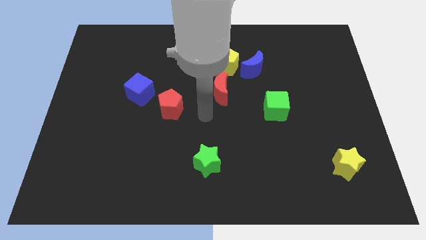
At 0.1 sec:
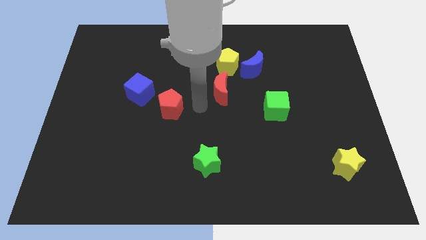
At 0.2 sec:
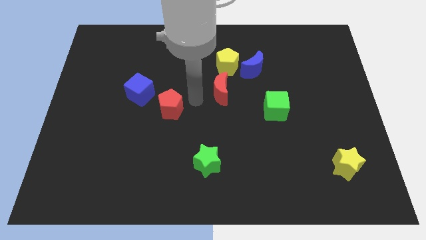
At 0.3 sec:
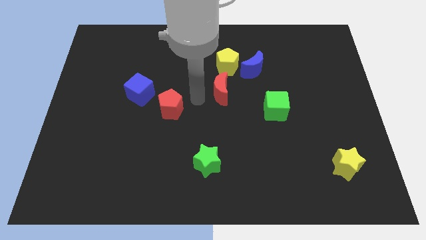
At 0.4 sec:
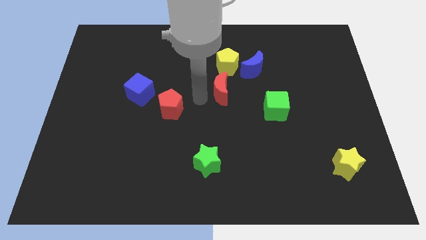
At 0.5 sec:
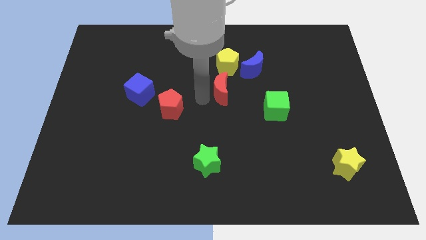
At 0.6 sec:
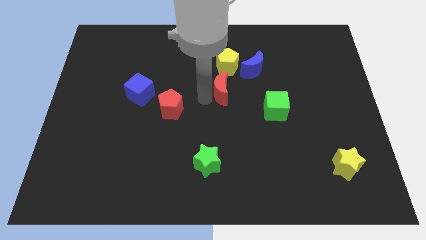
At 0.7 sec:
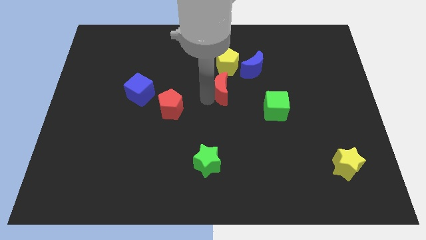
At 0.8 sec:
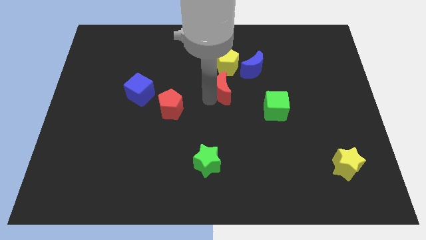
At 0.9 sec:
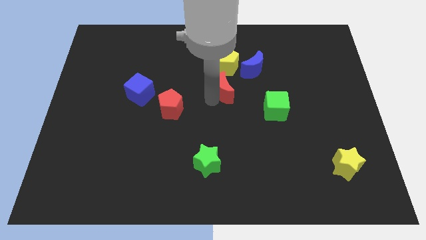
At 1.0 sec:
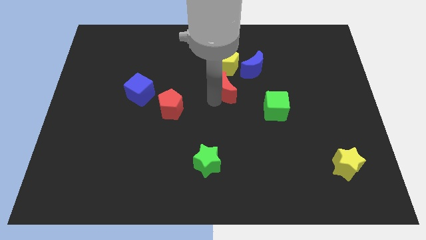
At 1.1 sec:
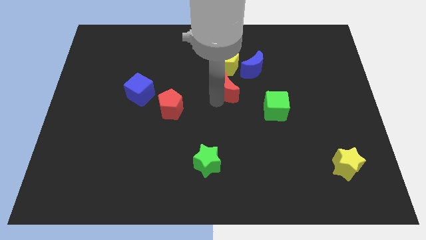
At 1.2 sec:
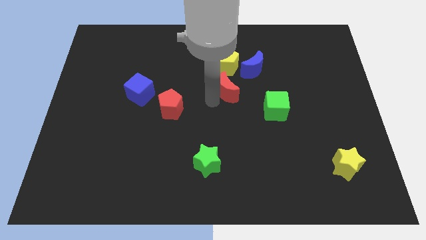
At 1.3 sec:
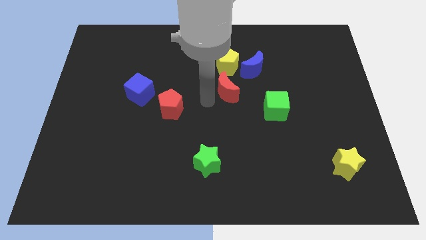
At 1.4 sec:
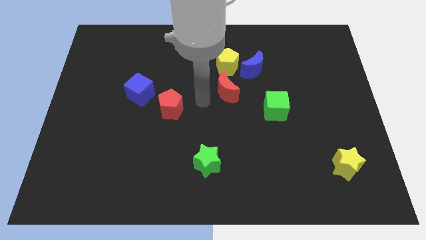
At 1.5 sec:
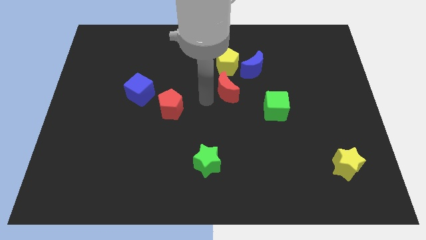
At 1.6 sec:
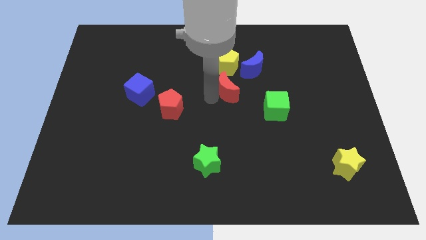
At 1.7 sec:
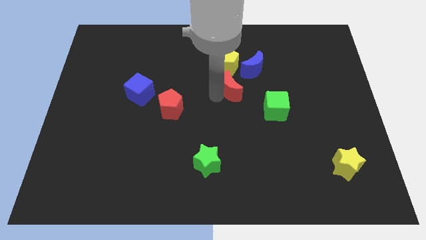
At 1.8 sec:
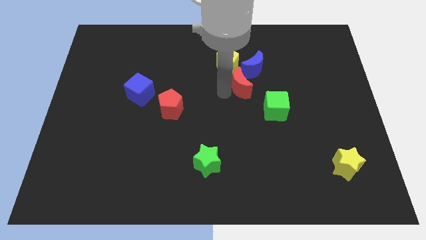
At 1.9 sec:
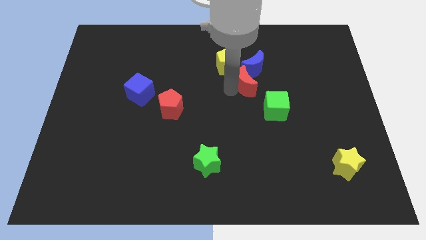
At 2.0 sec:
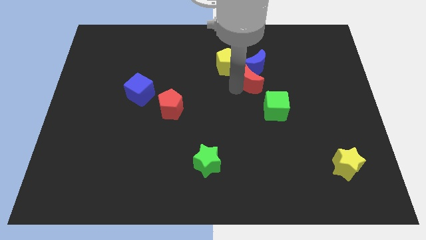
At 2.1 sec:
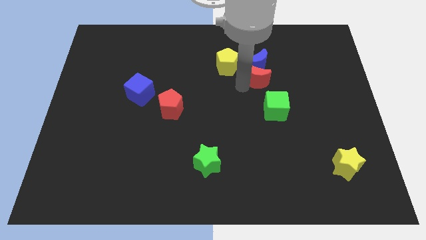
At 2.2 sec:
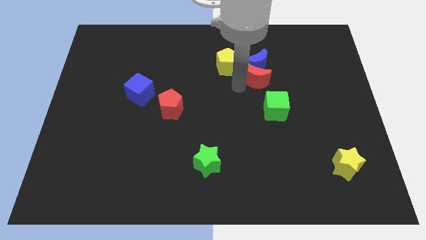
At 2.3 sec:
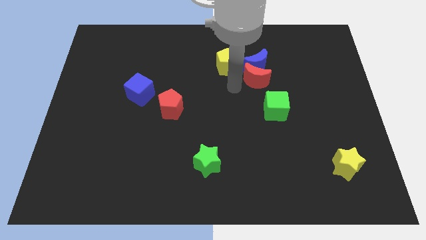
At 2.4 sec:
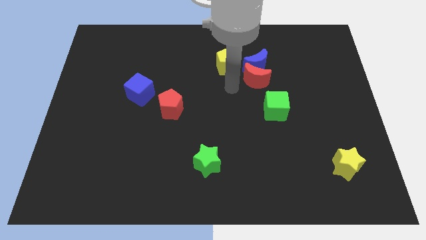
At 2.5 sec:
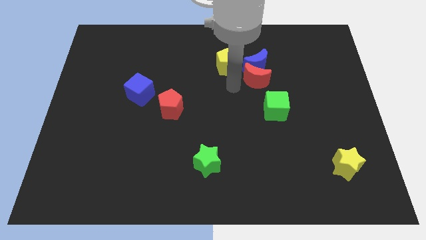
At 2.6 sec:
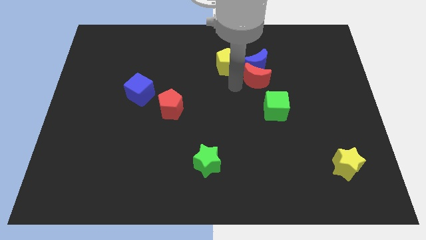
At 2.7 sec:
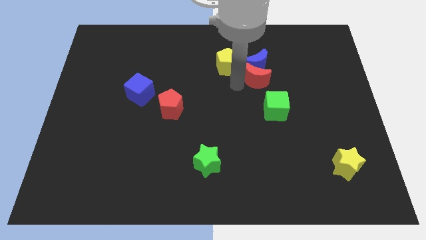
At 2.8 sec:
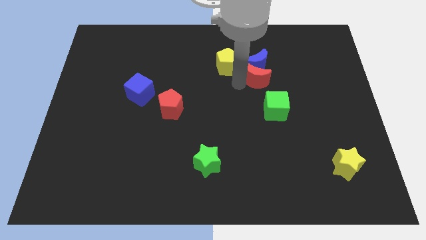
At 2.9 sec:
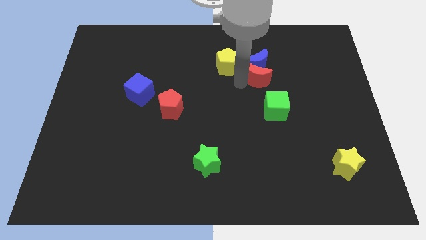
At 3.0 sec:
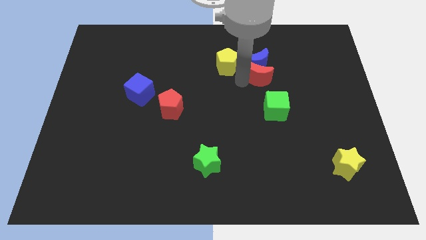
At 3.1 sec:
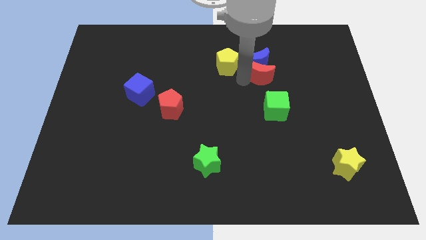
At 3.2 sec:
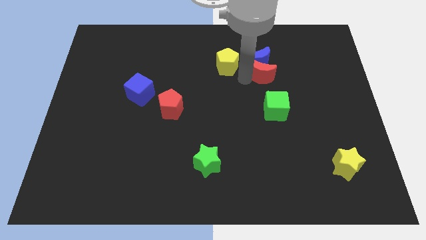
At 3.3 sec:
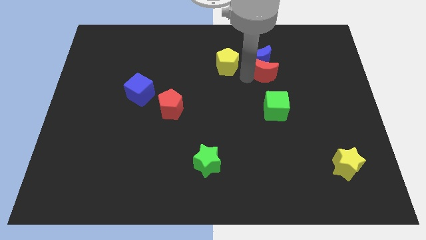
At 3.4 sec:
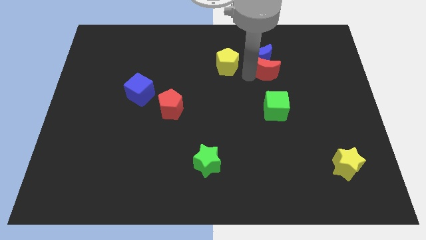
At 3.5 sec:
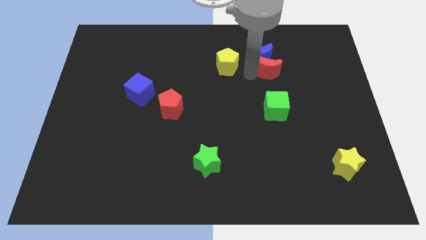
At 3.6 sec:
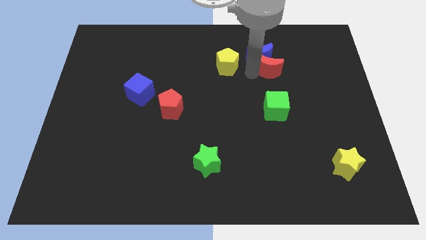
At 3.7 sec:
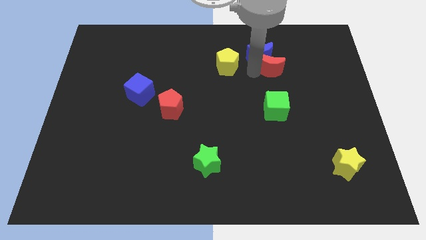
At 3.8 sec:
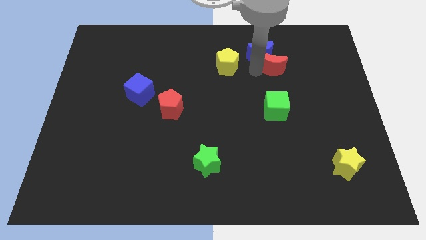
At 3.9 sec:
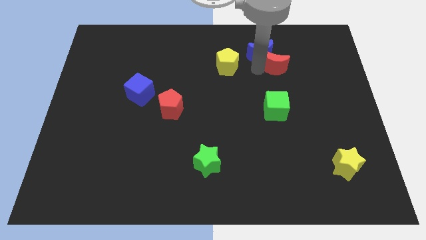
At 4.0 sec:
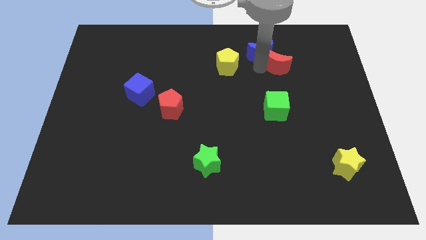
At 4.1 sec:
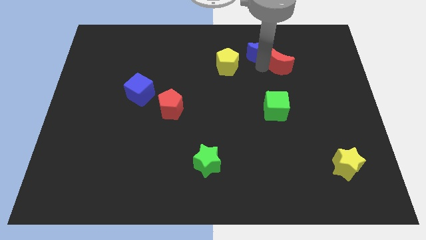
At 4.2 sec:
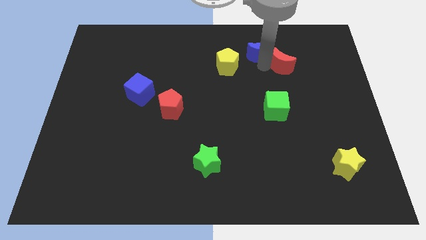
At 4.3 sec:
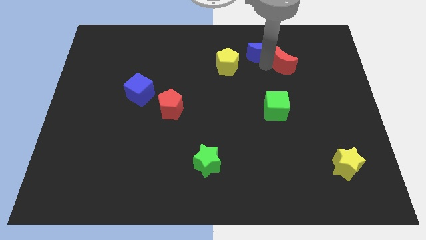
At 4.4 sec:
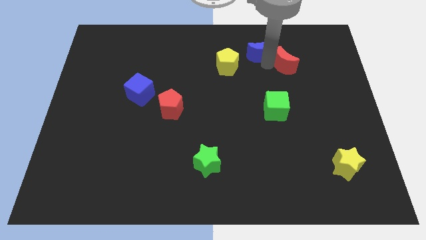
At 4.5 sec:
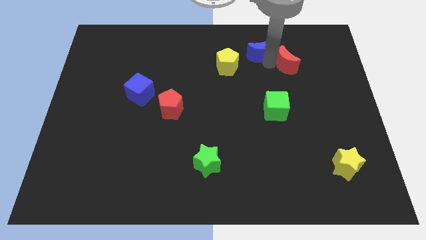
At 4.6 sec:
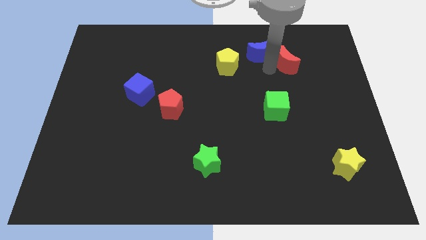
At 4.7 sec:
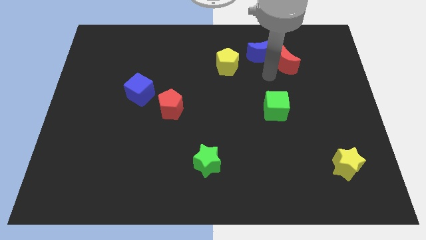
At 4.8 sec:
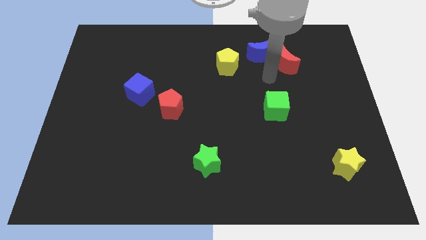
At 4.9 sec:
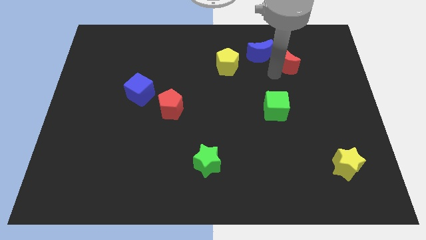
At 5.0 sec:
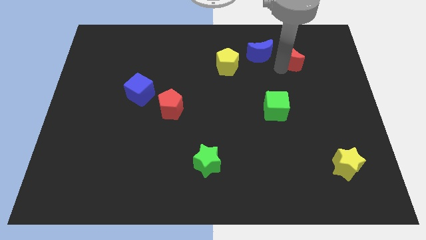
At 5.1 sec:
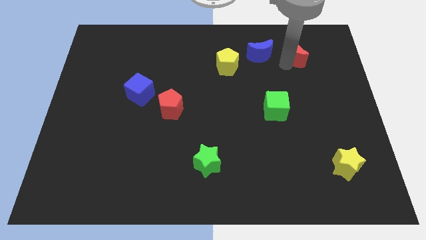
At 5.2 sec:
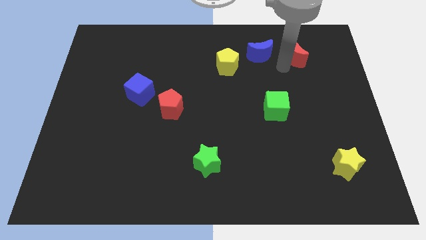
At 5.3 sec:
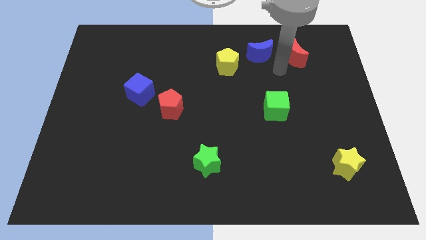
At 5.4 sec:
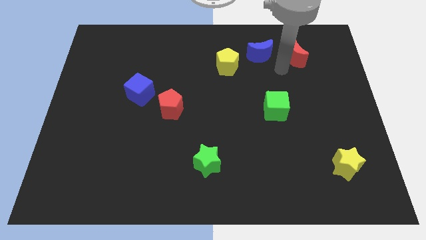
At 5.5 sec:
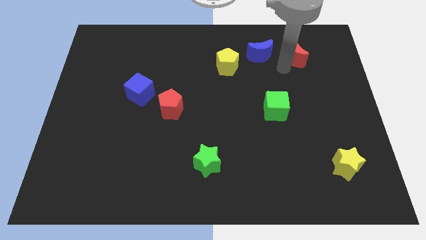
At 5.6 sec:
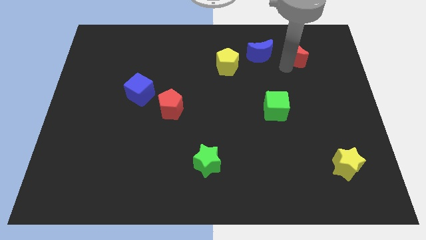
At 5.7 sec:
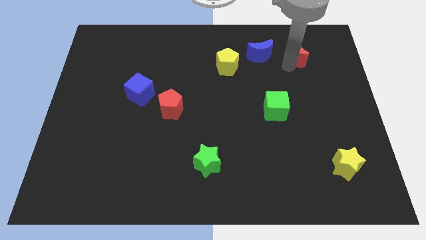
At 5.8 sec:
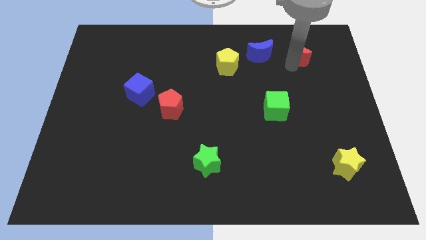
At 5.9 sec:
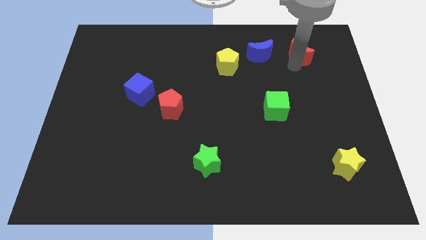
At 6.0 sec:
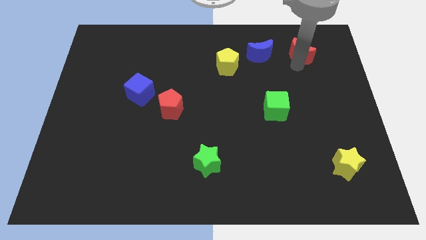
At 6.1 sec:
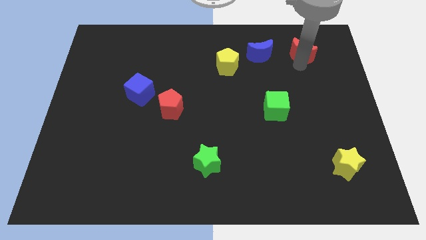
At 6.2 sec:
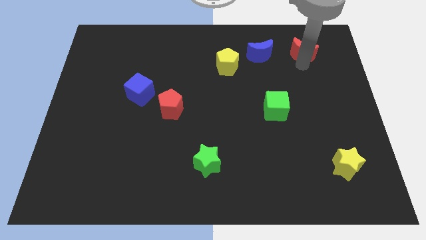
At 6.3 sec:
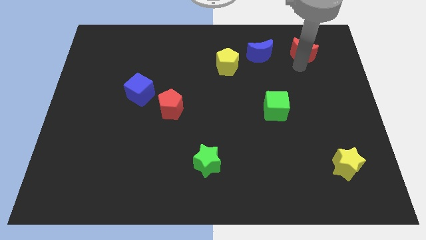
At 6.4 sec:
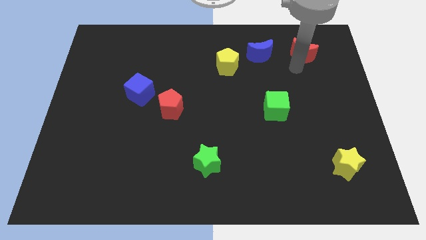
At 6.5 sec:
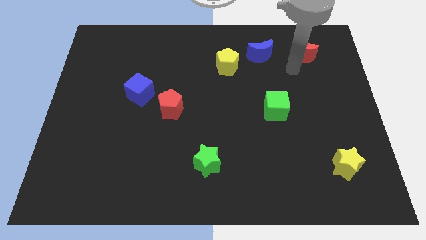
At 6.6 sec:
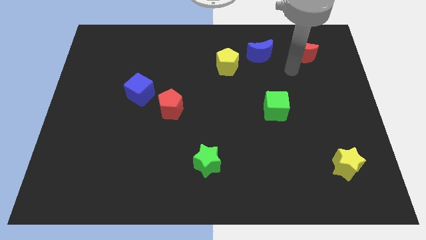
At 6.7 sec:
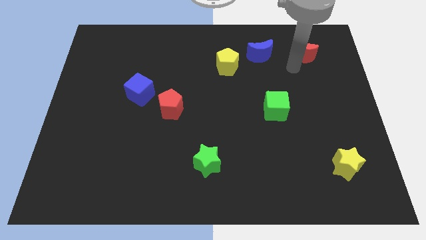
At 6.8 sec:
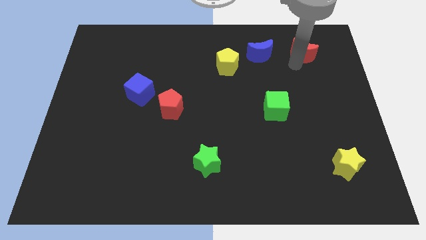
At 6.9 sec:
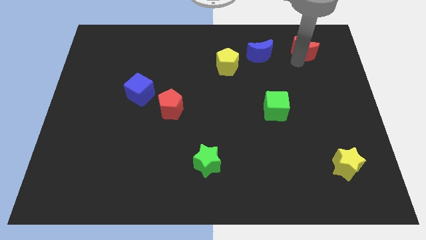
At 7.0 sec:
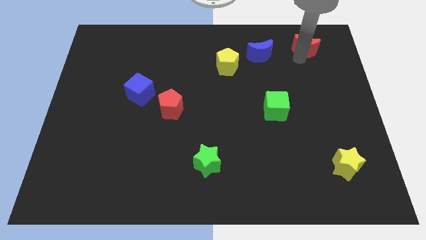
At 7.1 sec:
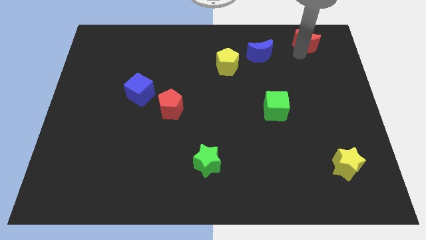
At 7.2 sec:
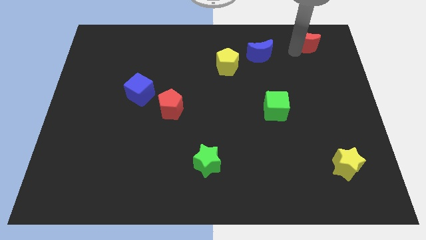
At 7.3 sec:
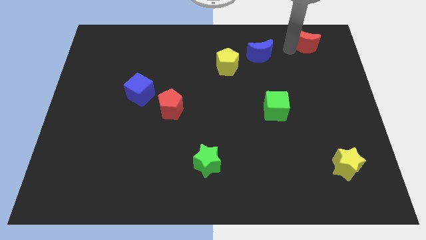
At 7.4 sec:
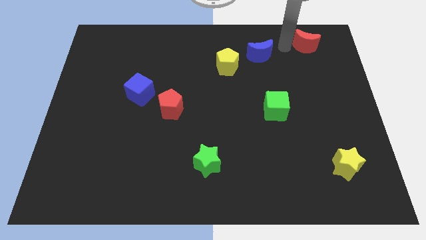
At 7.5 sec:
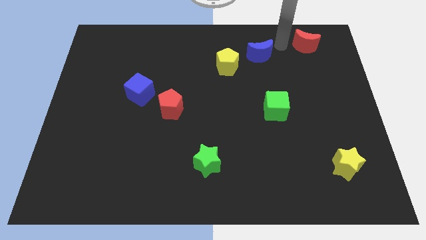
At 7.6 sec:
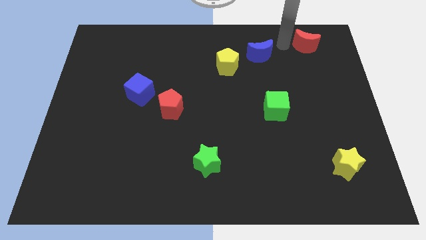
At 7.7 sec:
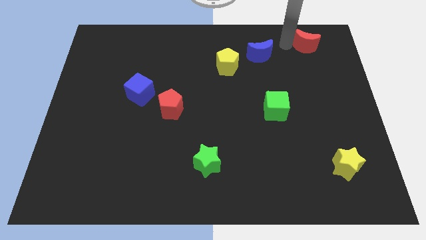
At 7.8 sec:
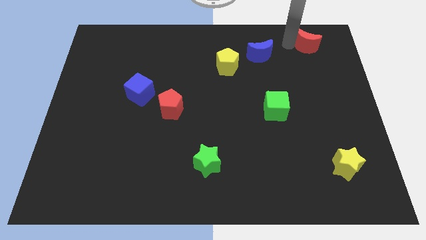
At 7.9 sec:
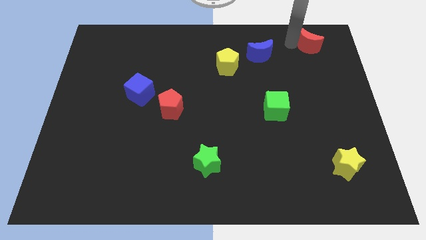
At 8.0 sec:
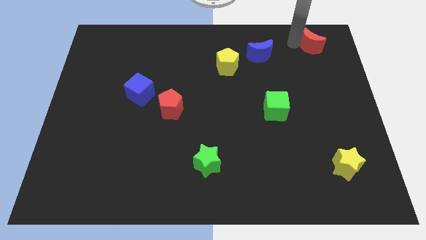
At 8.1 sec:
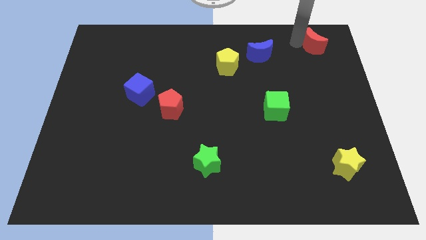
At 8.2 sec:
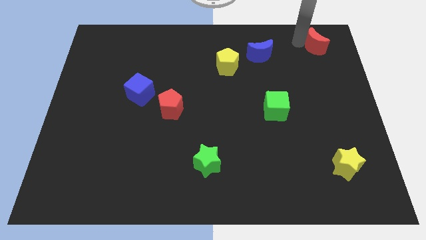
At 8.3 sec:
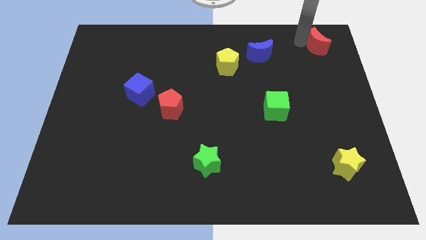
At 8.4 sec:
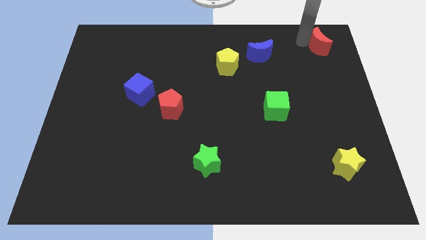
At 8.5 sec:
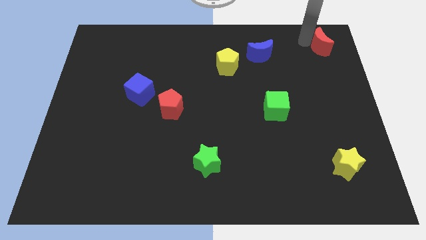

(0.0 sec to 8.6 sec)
move the red moon to the top right of the board
